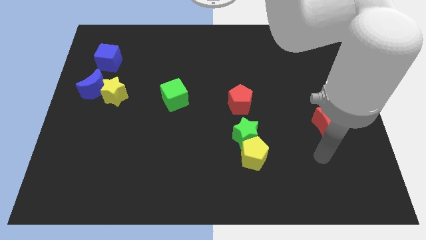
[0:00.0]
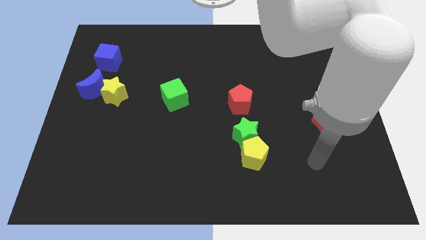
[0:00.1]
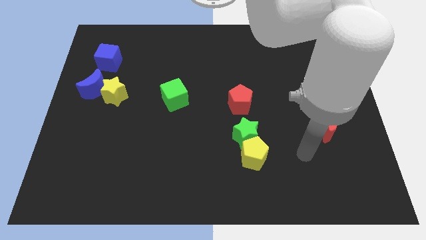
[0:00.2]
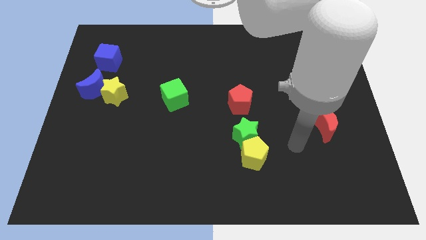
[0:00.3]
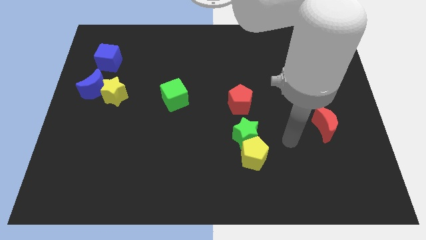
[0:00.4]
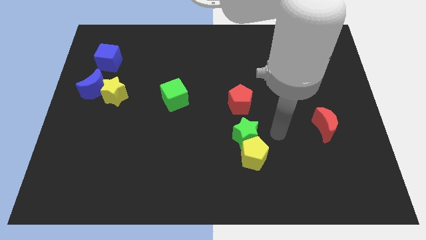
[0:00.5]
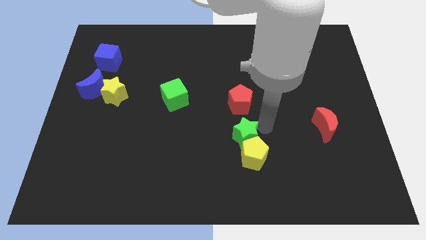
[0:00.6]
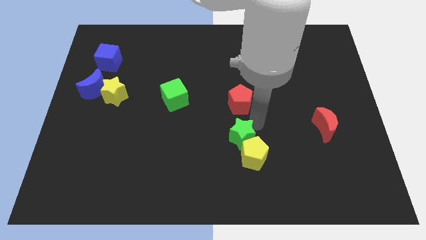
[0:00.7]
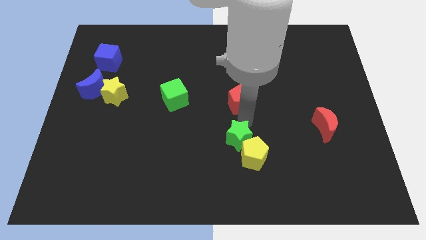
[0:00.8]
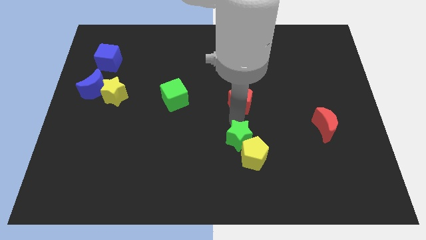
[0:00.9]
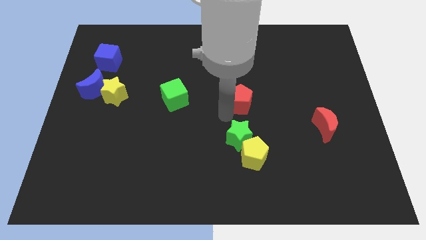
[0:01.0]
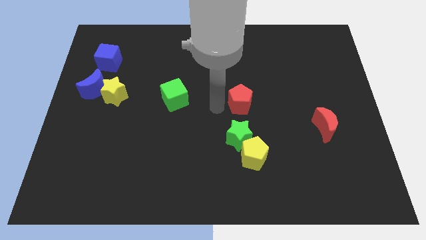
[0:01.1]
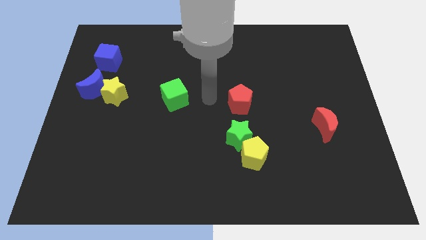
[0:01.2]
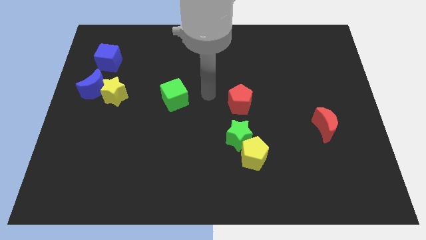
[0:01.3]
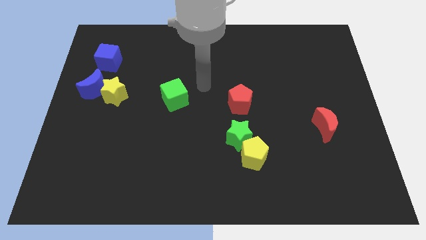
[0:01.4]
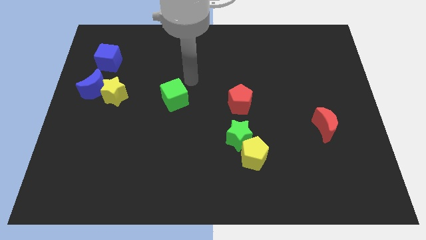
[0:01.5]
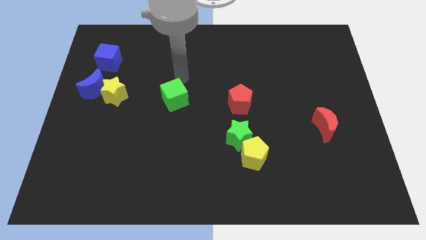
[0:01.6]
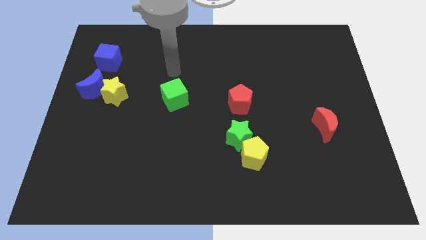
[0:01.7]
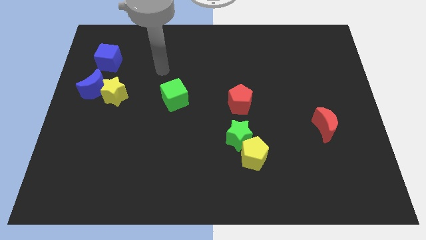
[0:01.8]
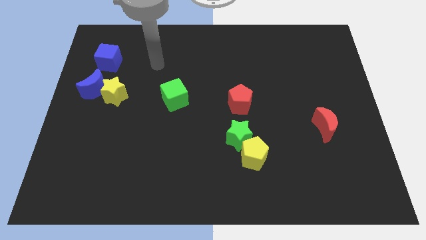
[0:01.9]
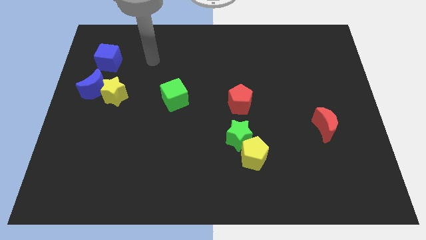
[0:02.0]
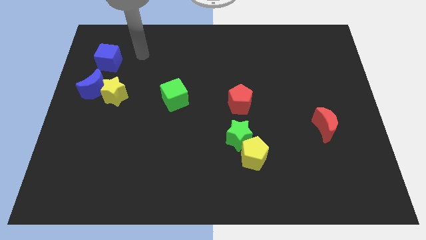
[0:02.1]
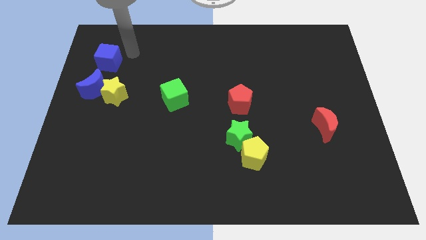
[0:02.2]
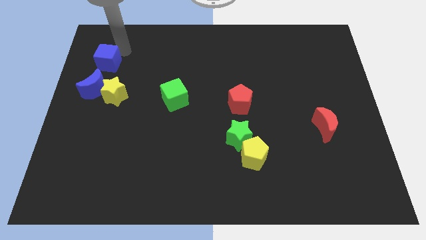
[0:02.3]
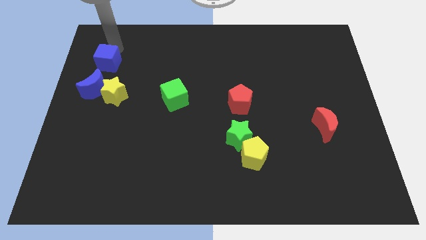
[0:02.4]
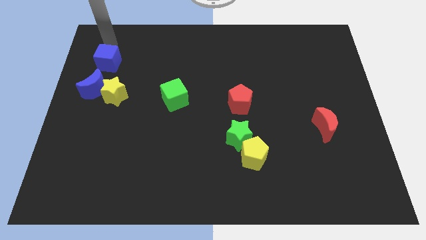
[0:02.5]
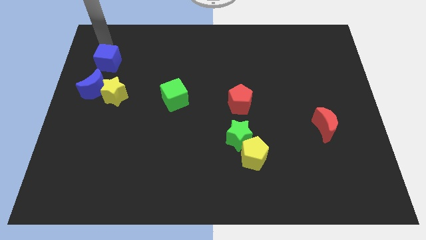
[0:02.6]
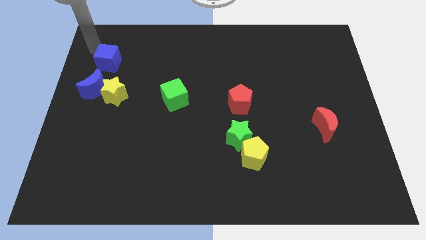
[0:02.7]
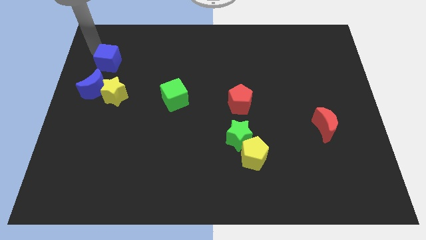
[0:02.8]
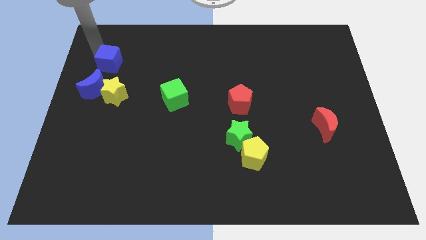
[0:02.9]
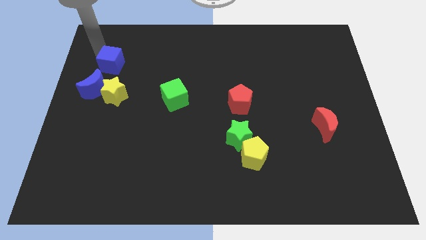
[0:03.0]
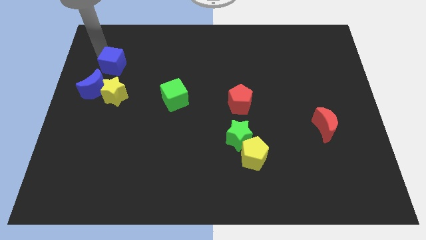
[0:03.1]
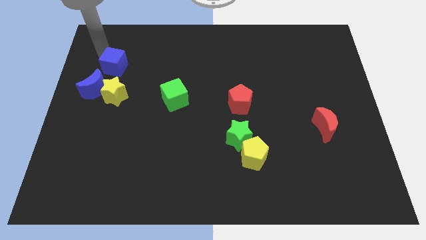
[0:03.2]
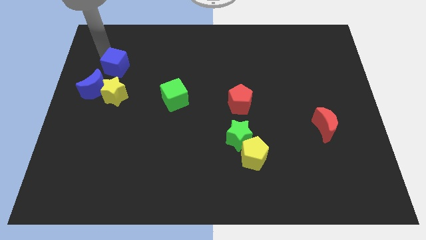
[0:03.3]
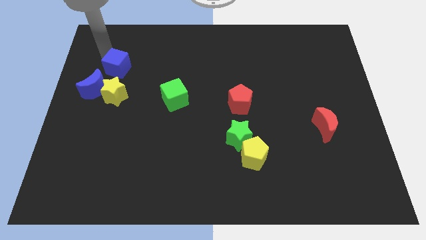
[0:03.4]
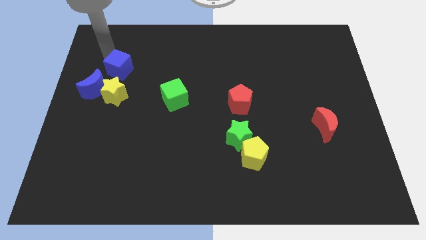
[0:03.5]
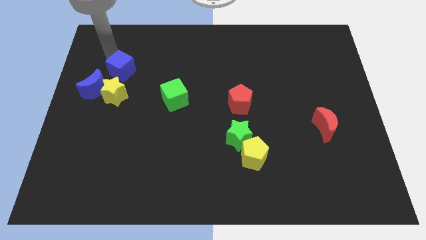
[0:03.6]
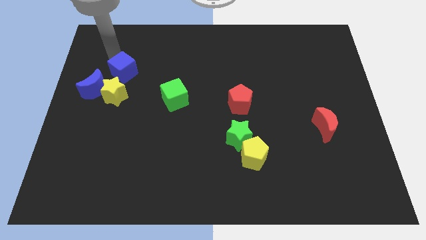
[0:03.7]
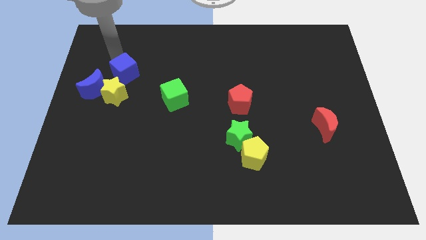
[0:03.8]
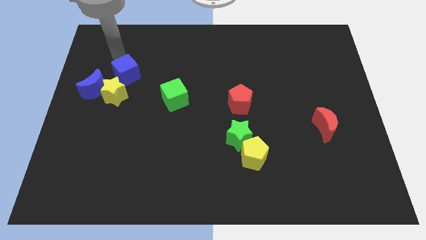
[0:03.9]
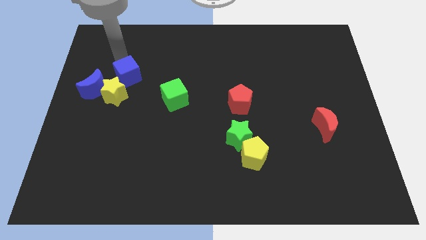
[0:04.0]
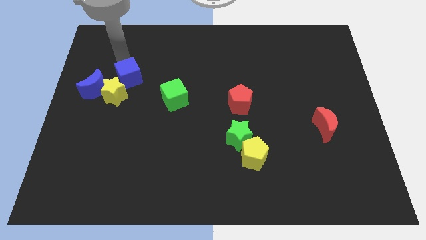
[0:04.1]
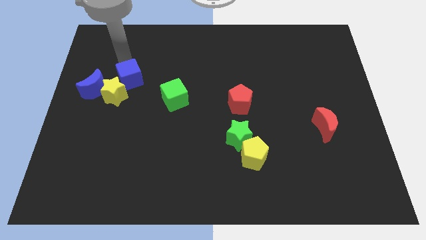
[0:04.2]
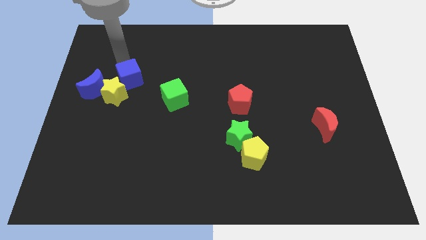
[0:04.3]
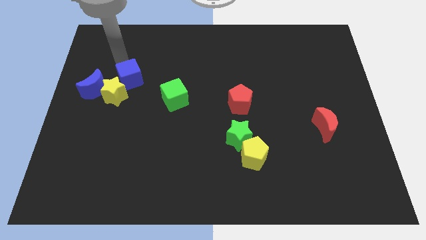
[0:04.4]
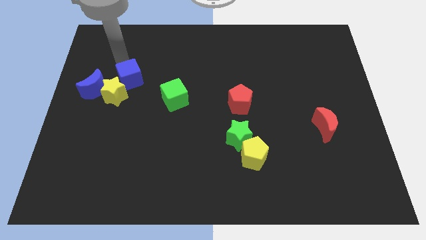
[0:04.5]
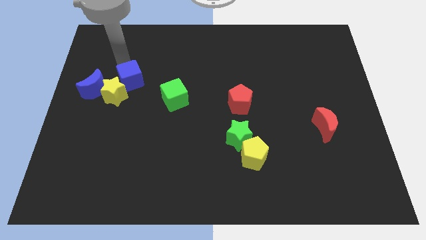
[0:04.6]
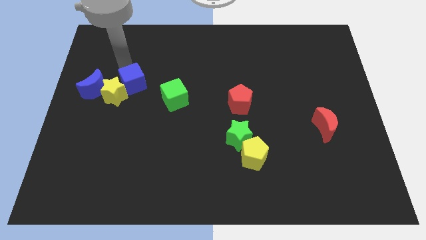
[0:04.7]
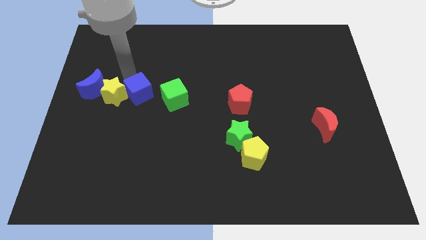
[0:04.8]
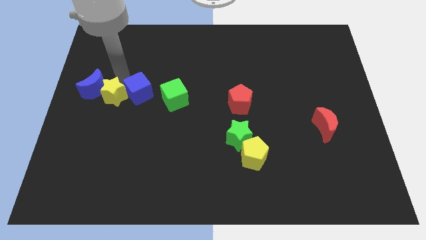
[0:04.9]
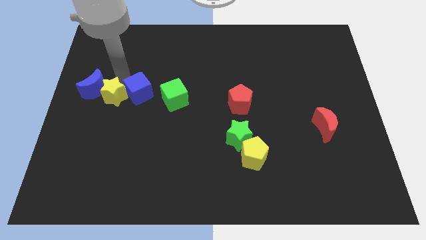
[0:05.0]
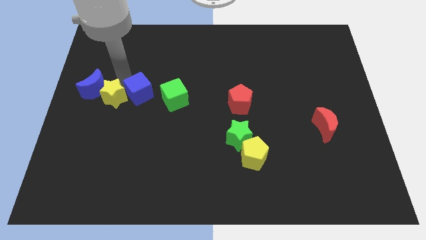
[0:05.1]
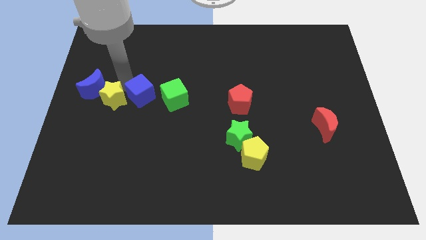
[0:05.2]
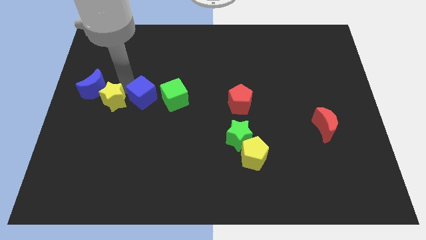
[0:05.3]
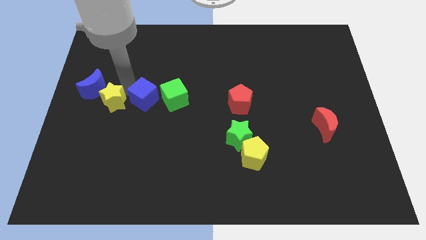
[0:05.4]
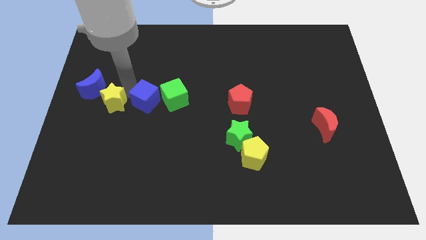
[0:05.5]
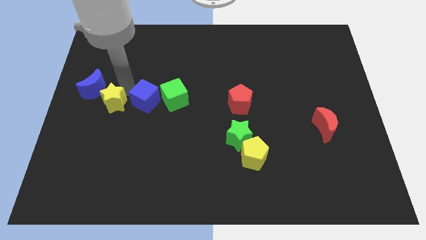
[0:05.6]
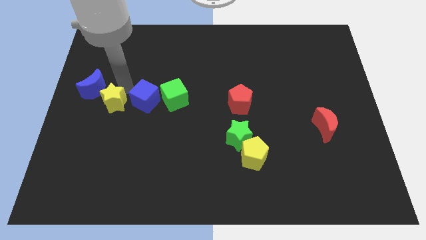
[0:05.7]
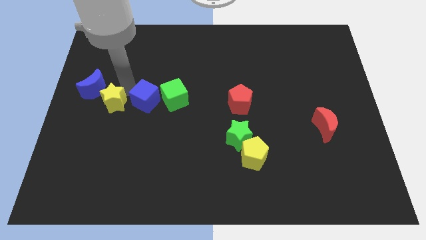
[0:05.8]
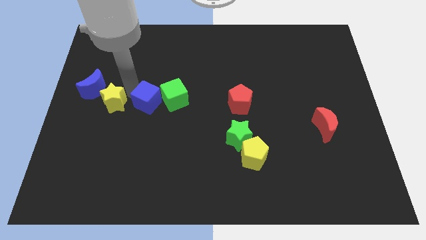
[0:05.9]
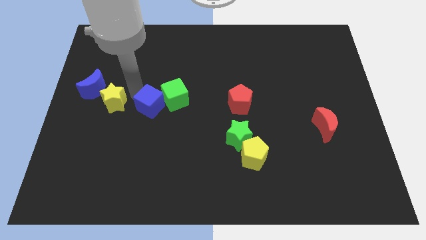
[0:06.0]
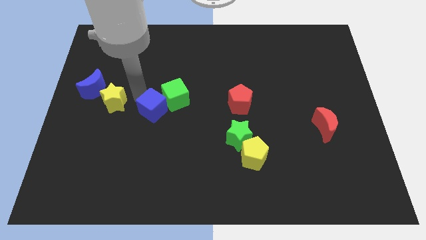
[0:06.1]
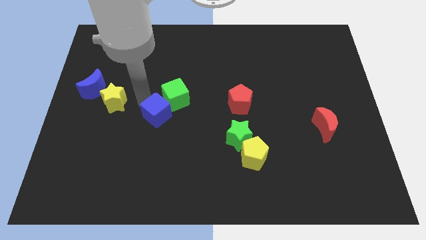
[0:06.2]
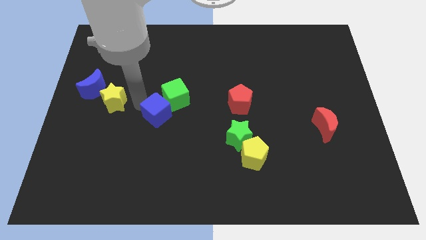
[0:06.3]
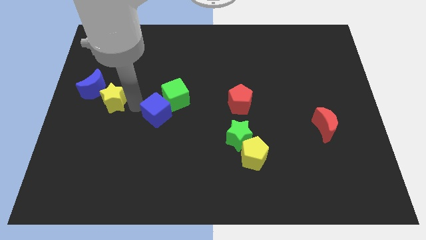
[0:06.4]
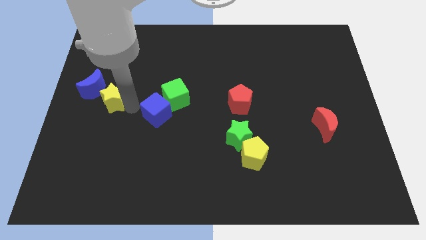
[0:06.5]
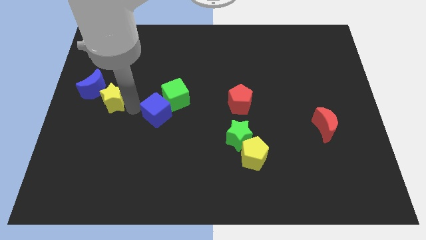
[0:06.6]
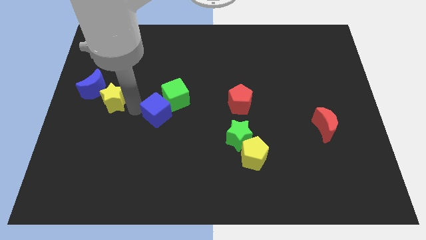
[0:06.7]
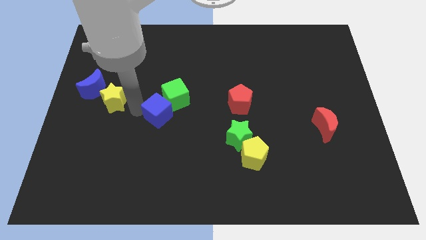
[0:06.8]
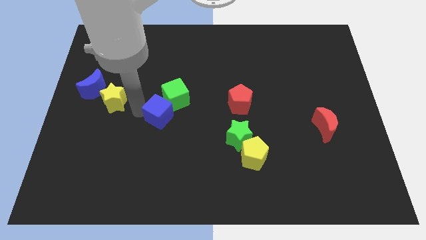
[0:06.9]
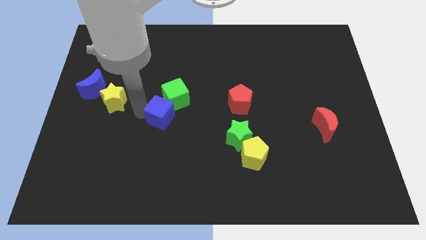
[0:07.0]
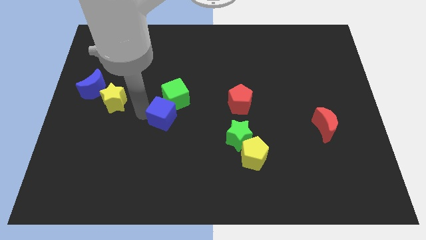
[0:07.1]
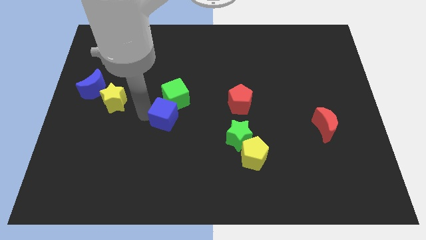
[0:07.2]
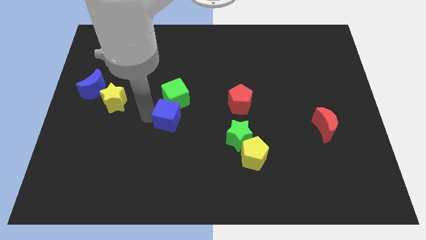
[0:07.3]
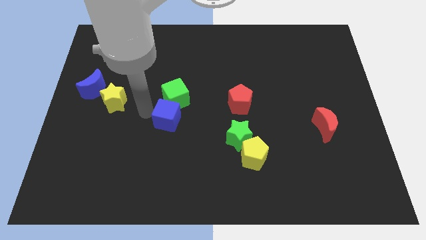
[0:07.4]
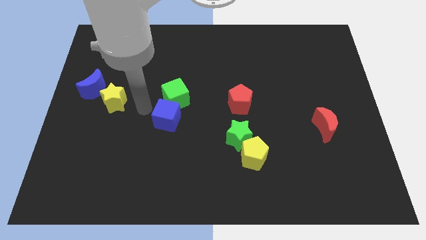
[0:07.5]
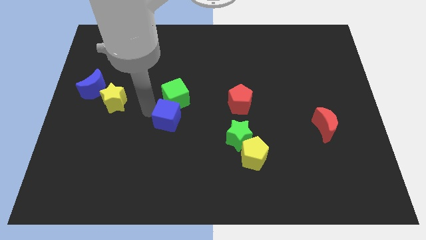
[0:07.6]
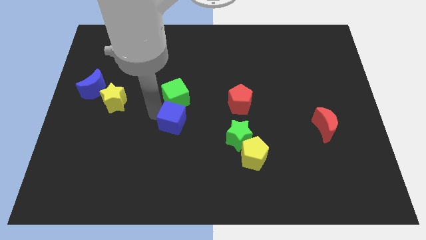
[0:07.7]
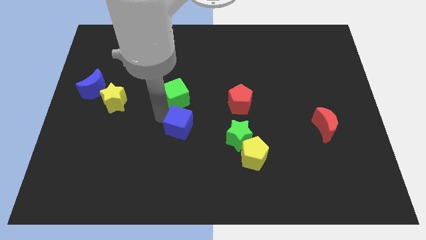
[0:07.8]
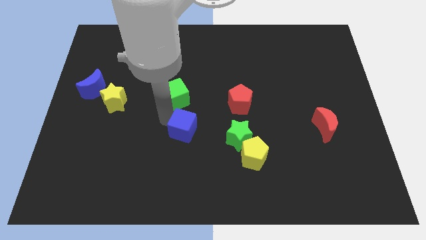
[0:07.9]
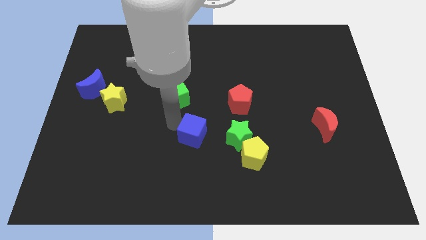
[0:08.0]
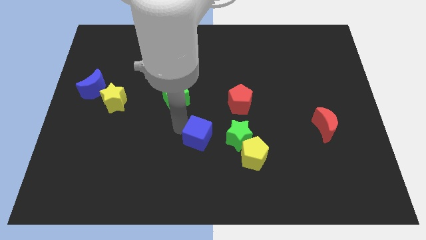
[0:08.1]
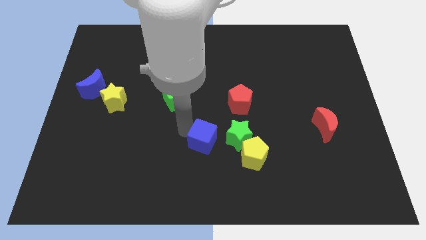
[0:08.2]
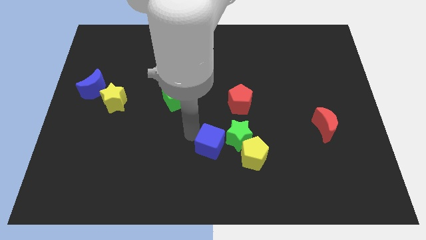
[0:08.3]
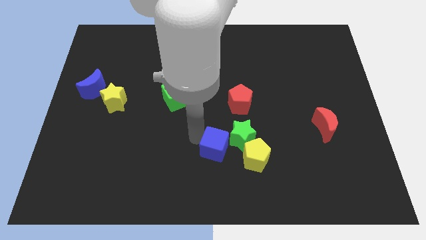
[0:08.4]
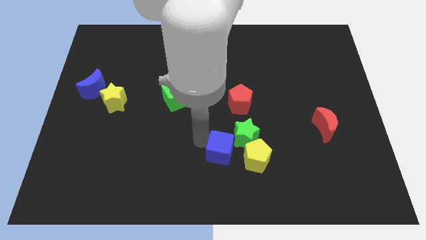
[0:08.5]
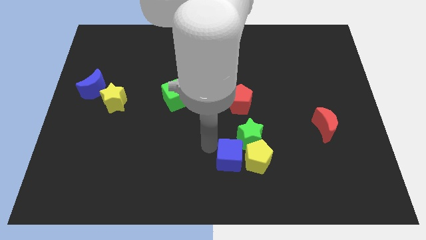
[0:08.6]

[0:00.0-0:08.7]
put the blue cube next to the yellow pentagon
